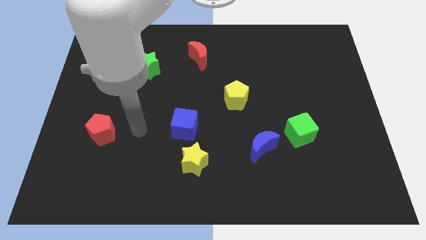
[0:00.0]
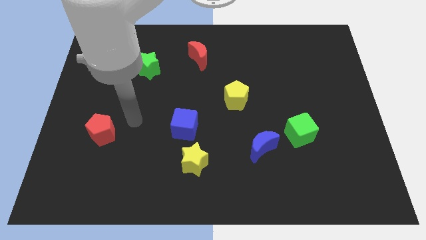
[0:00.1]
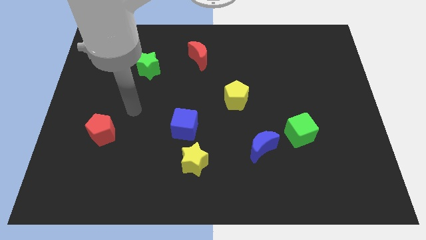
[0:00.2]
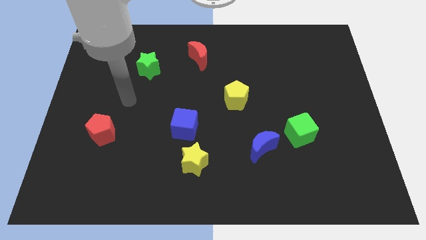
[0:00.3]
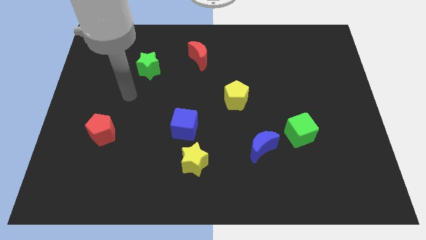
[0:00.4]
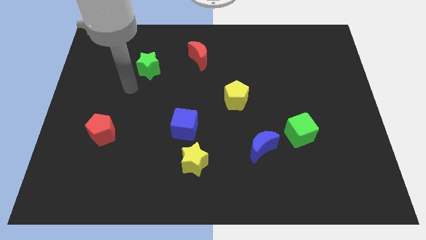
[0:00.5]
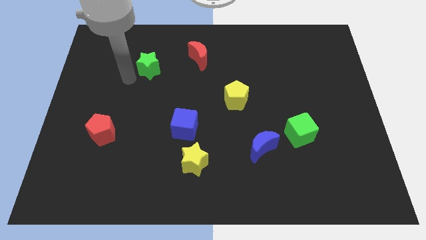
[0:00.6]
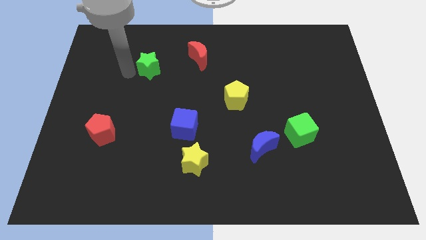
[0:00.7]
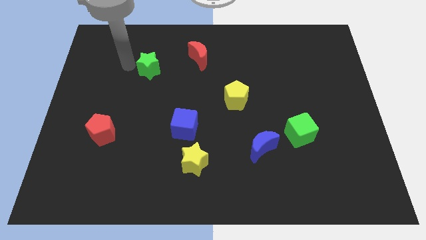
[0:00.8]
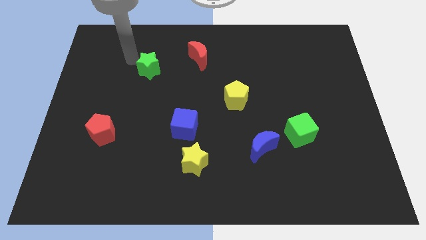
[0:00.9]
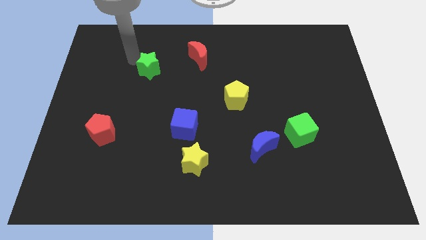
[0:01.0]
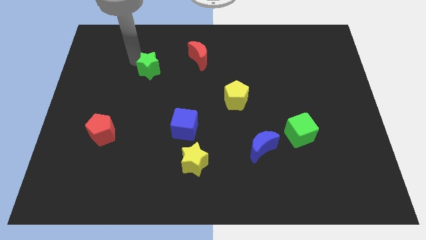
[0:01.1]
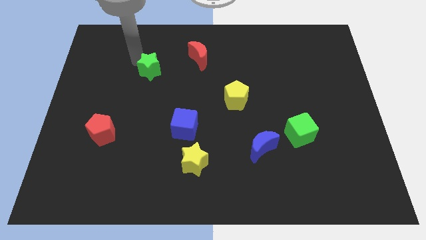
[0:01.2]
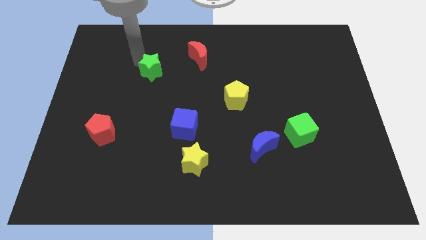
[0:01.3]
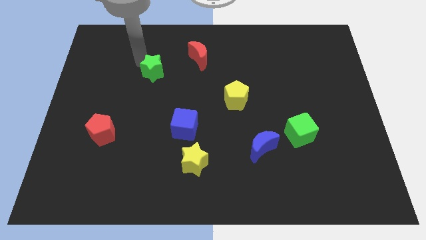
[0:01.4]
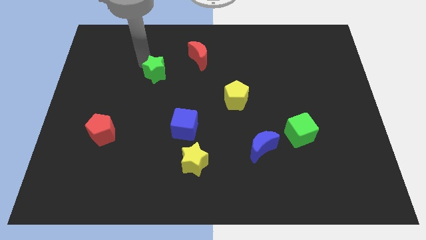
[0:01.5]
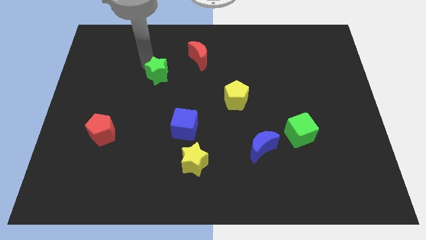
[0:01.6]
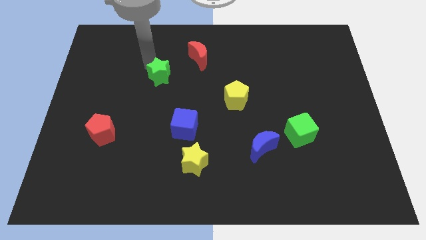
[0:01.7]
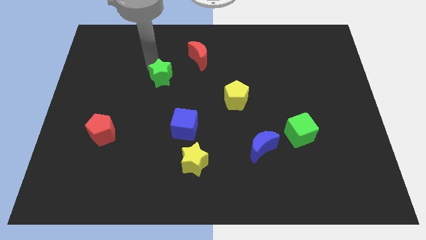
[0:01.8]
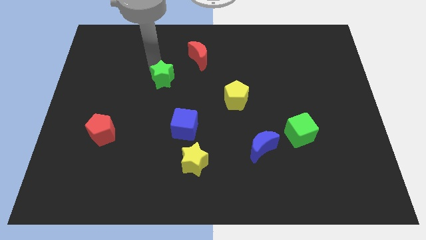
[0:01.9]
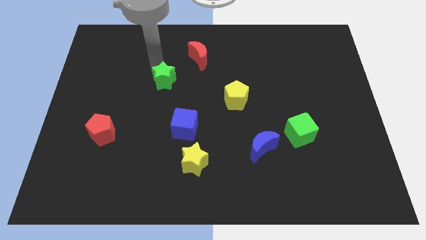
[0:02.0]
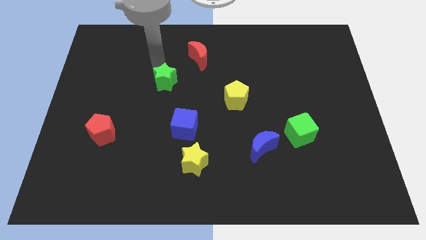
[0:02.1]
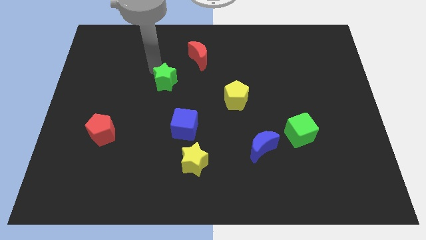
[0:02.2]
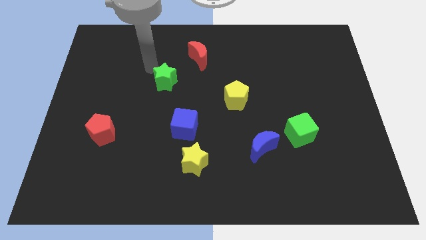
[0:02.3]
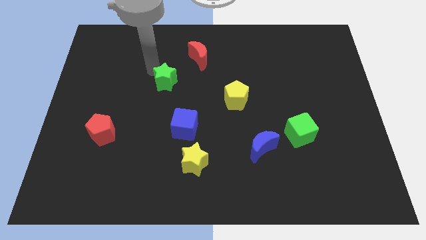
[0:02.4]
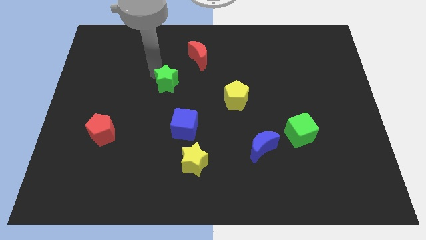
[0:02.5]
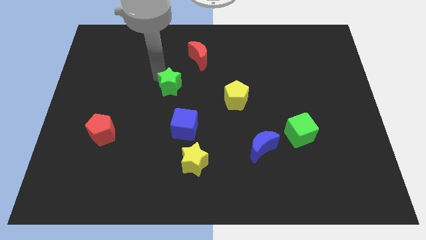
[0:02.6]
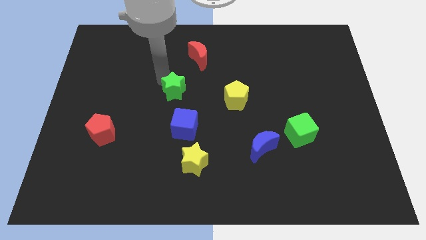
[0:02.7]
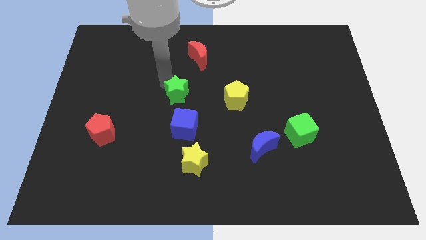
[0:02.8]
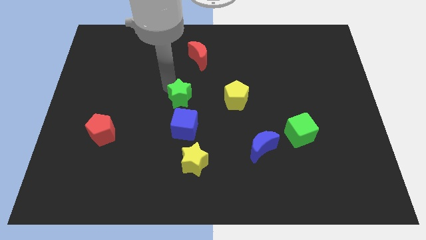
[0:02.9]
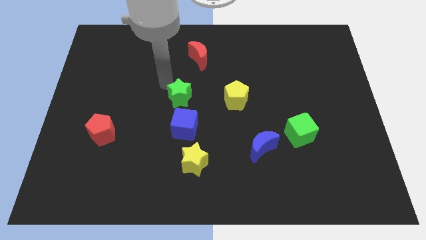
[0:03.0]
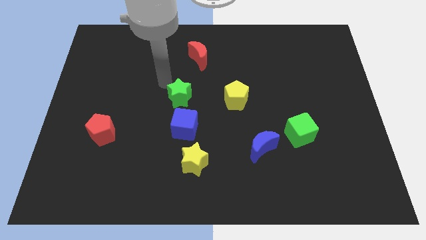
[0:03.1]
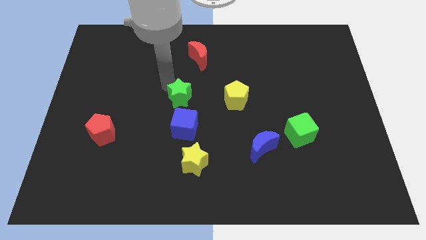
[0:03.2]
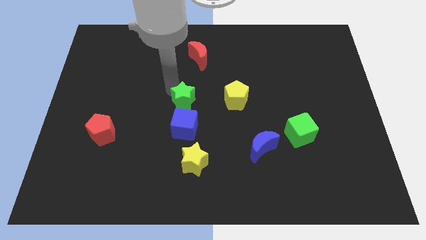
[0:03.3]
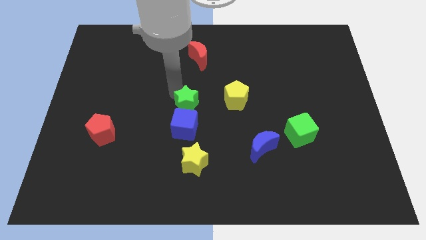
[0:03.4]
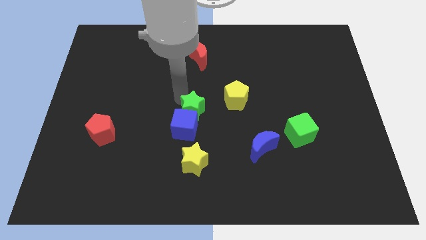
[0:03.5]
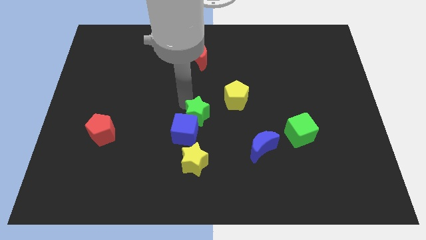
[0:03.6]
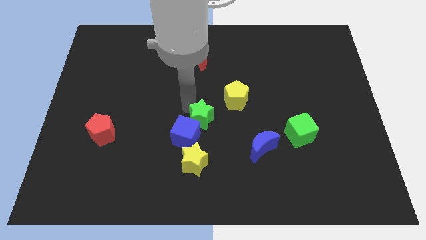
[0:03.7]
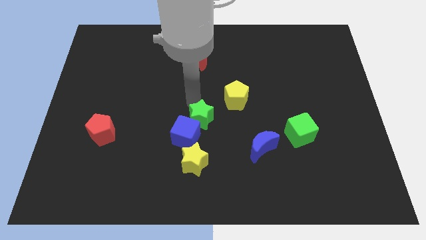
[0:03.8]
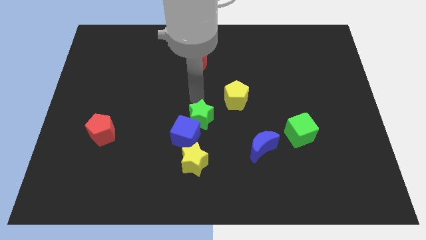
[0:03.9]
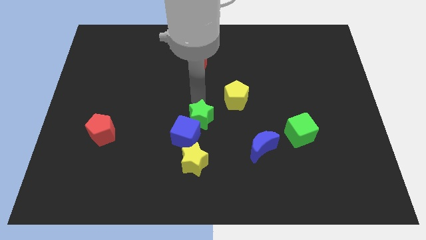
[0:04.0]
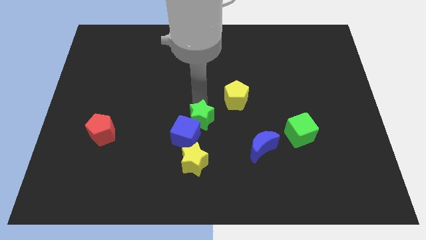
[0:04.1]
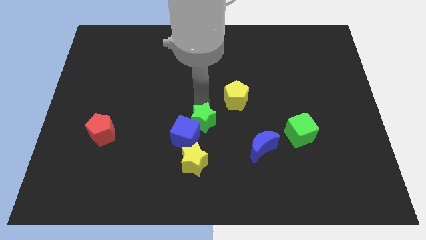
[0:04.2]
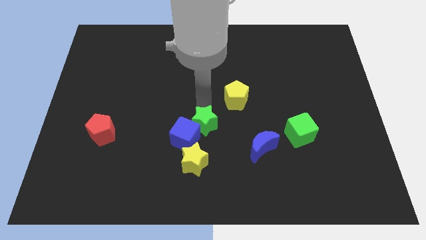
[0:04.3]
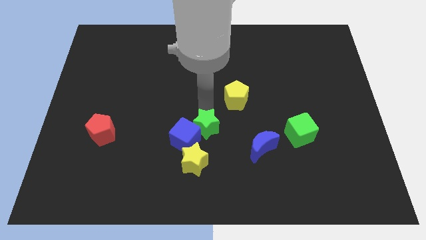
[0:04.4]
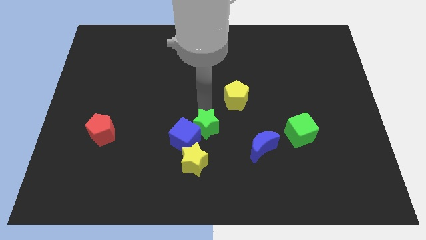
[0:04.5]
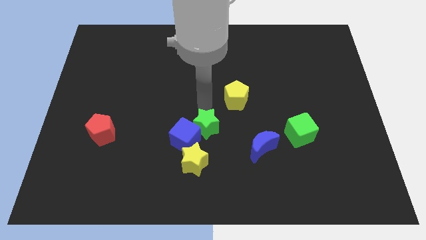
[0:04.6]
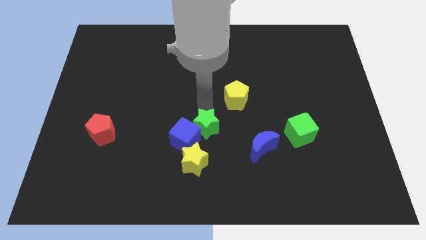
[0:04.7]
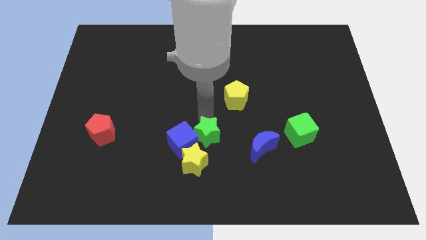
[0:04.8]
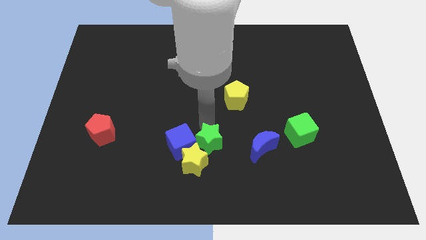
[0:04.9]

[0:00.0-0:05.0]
put the green star to the bottom right side of the blue cube

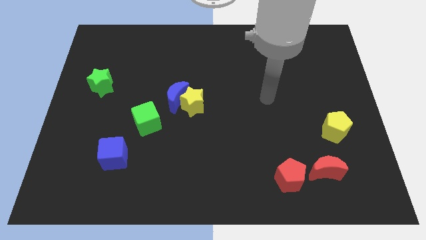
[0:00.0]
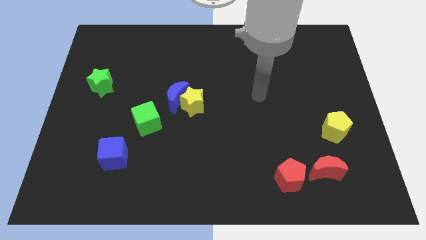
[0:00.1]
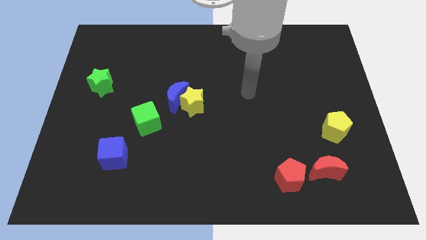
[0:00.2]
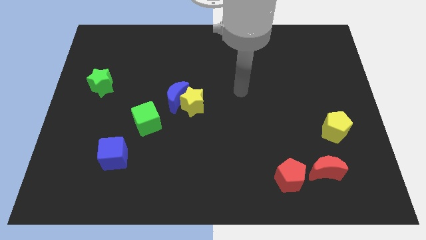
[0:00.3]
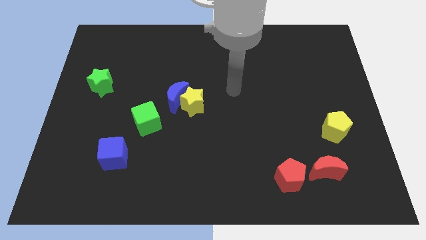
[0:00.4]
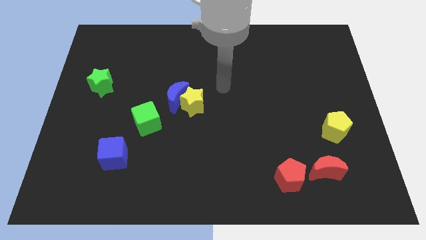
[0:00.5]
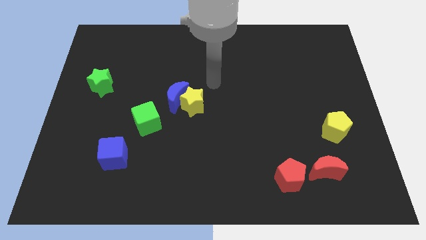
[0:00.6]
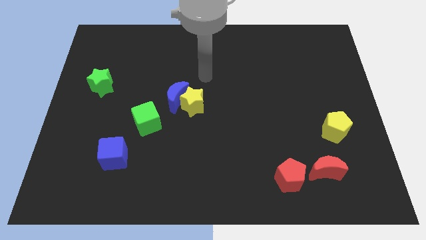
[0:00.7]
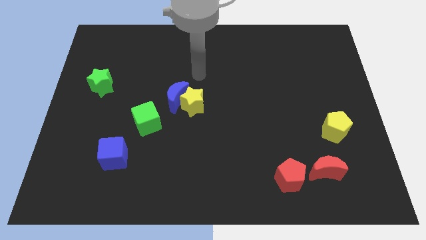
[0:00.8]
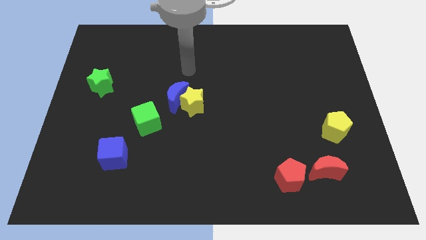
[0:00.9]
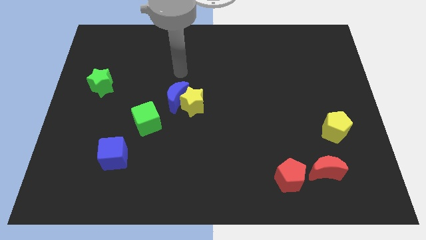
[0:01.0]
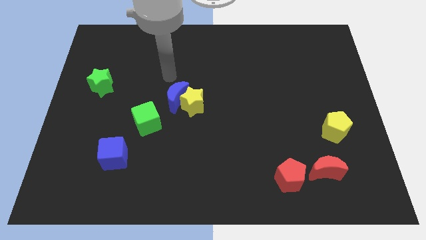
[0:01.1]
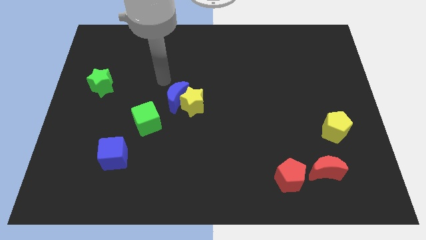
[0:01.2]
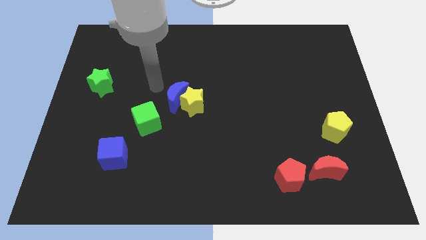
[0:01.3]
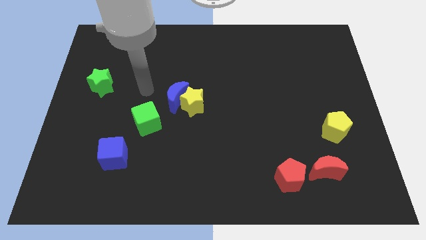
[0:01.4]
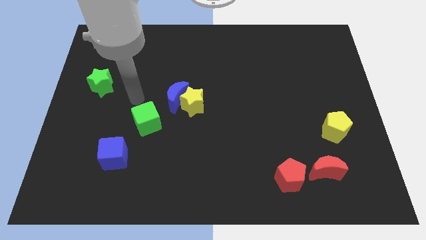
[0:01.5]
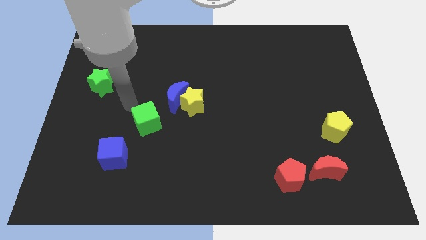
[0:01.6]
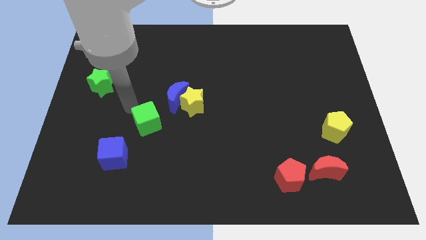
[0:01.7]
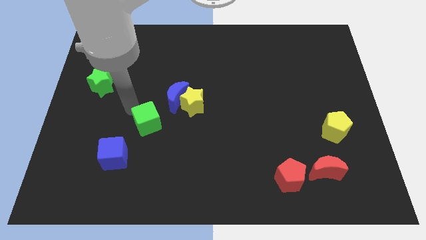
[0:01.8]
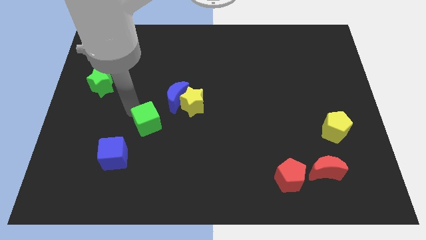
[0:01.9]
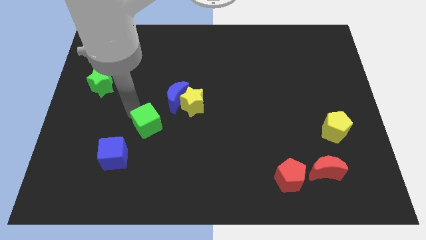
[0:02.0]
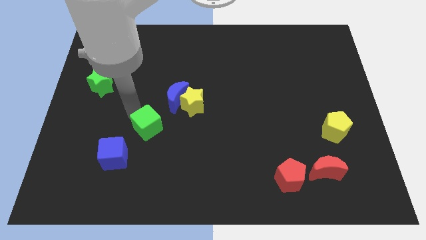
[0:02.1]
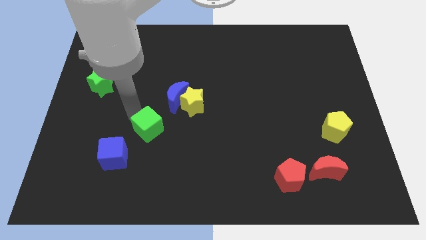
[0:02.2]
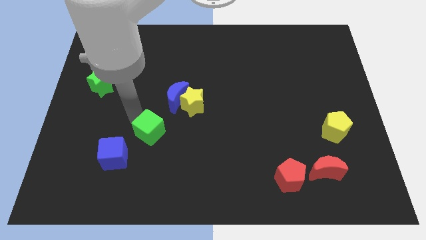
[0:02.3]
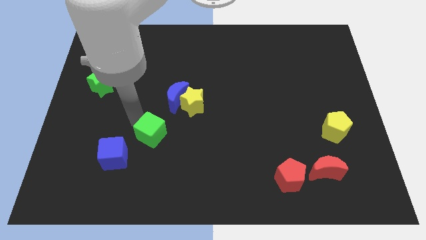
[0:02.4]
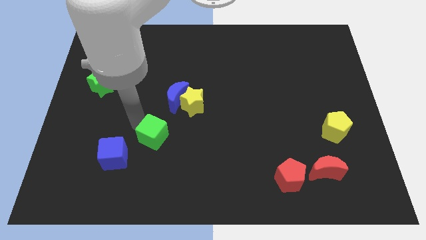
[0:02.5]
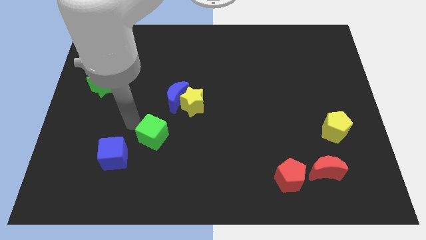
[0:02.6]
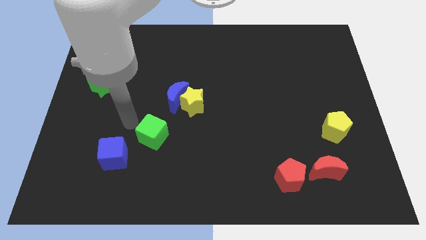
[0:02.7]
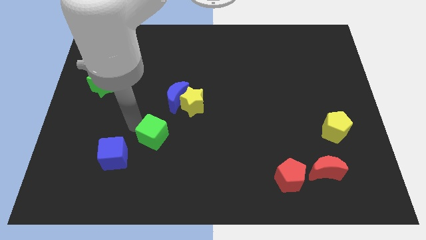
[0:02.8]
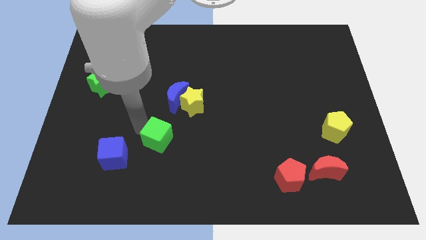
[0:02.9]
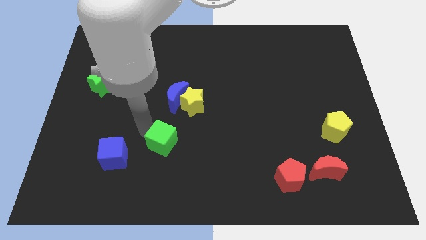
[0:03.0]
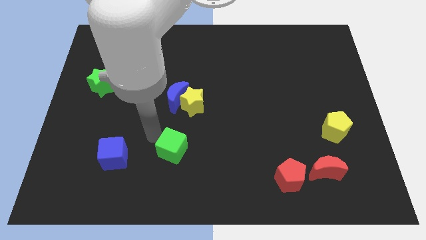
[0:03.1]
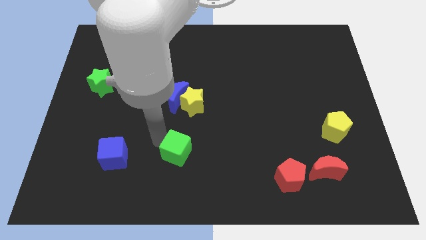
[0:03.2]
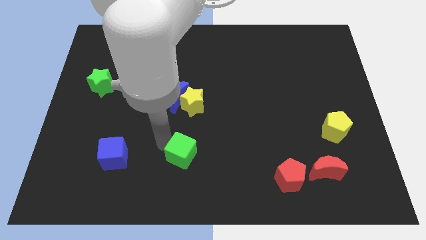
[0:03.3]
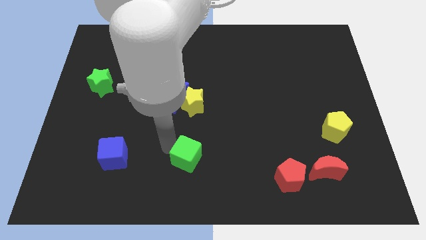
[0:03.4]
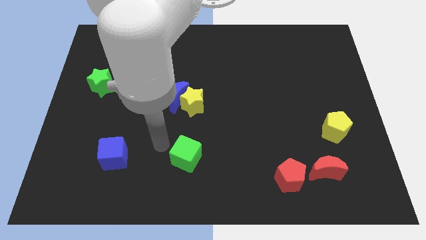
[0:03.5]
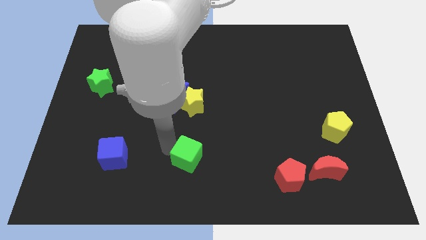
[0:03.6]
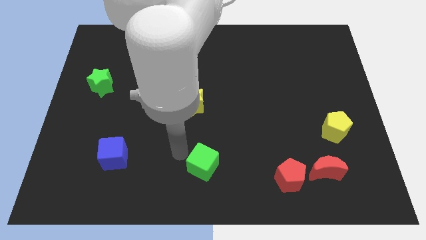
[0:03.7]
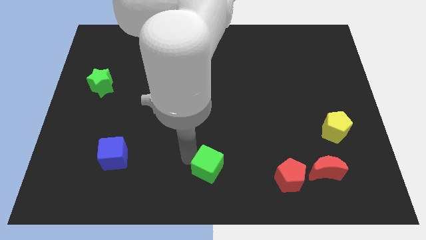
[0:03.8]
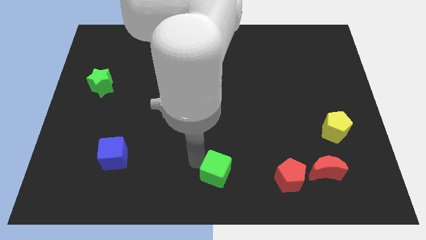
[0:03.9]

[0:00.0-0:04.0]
put the green cube to the left of the red pentagon
